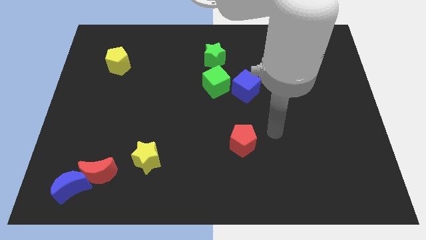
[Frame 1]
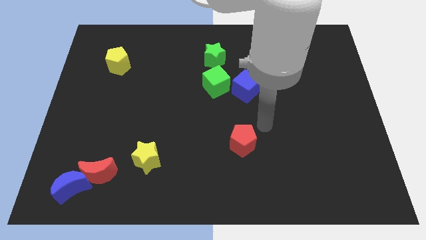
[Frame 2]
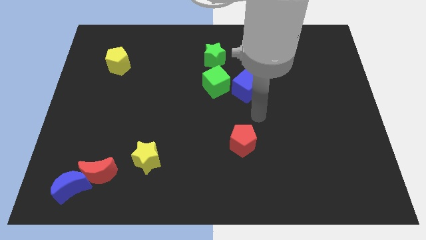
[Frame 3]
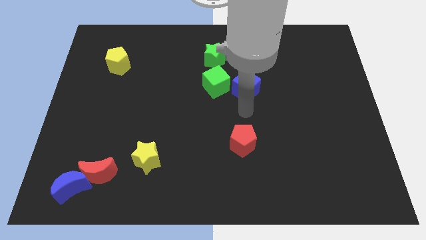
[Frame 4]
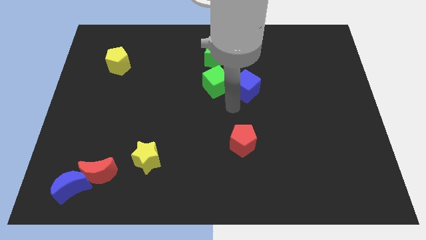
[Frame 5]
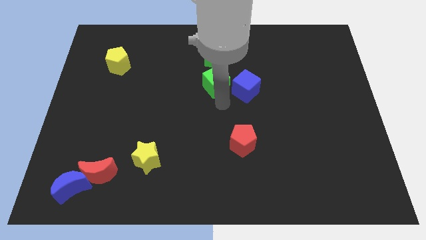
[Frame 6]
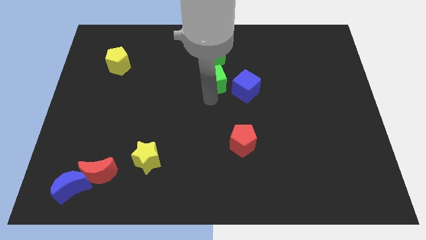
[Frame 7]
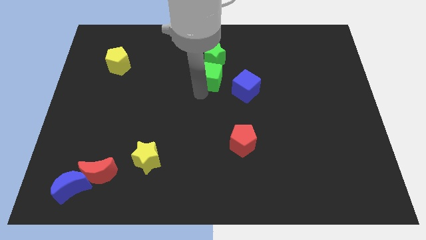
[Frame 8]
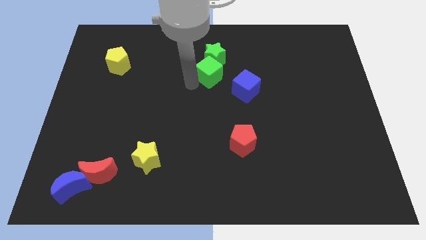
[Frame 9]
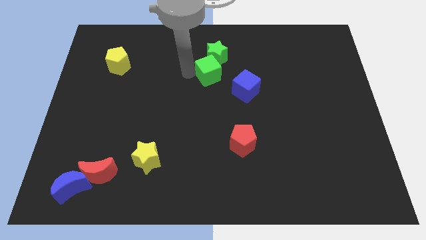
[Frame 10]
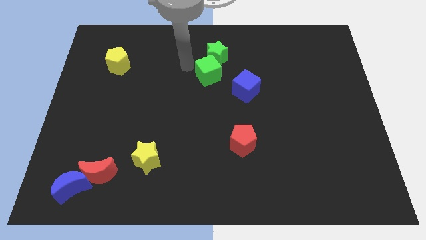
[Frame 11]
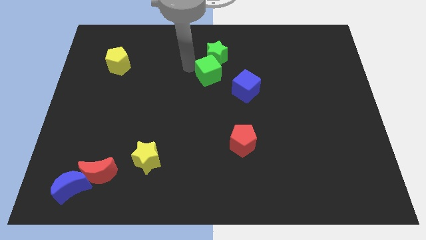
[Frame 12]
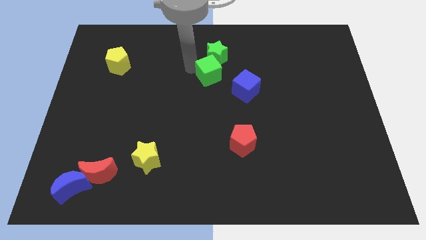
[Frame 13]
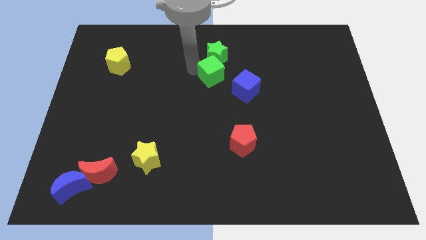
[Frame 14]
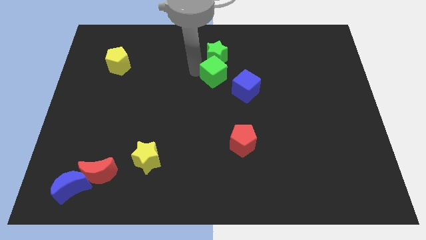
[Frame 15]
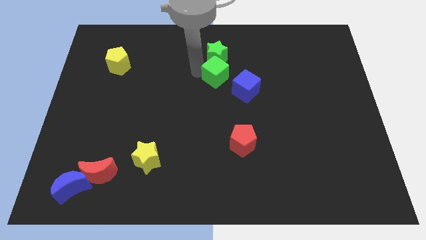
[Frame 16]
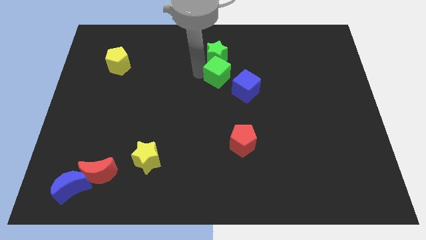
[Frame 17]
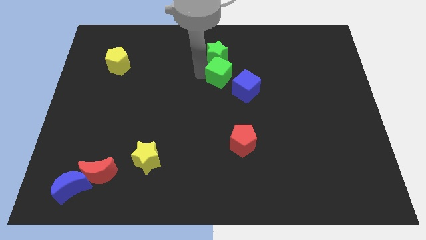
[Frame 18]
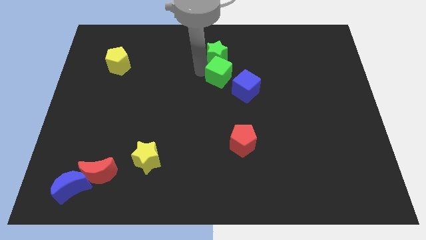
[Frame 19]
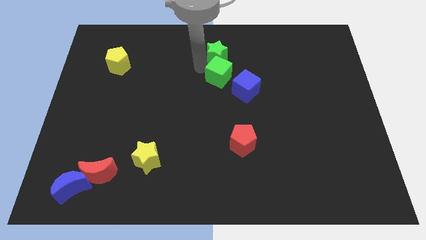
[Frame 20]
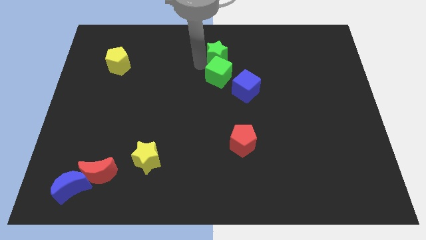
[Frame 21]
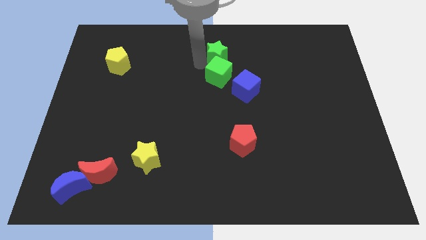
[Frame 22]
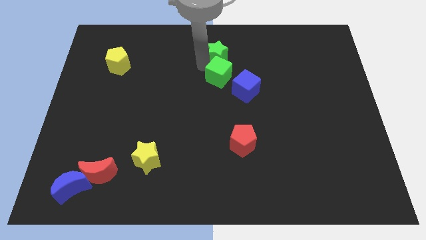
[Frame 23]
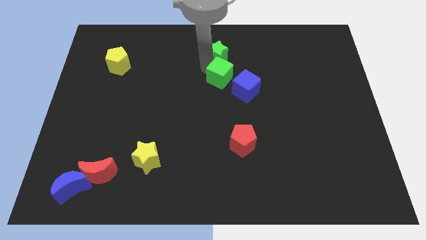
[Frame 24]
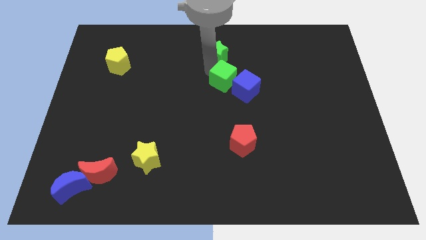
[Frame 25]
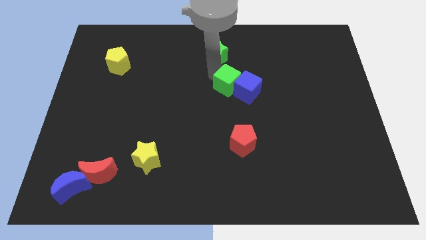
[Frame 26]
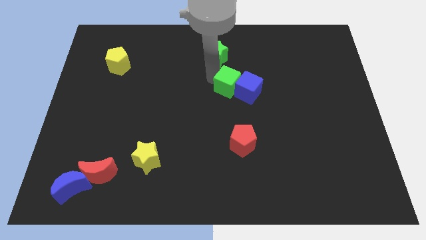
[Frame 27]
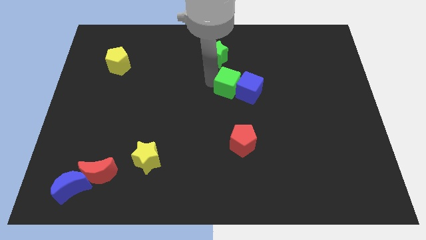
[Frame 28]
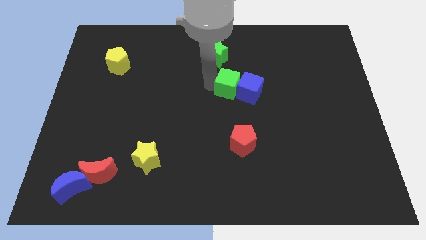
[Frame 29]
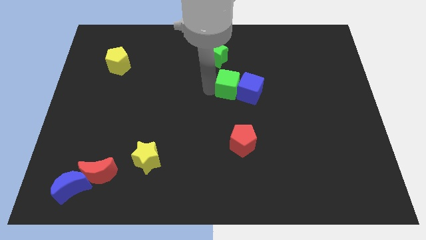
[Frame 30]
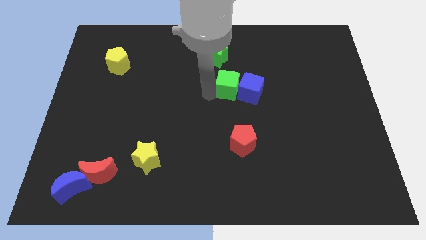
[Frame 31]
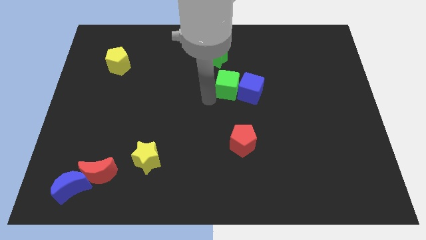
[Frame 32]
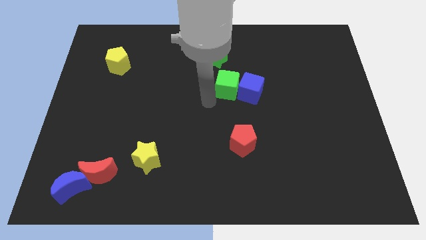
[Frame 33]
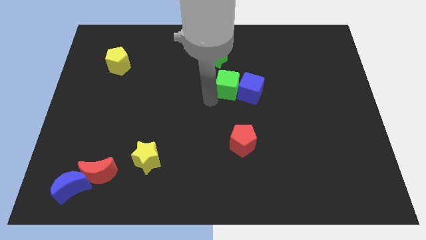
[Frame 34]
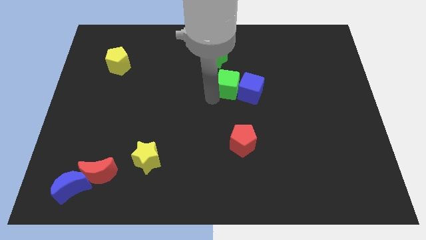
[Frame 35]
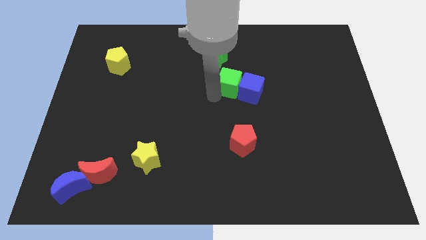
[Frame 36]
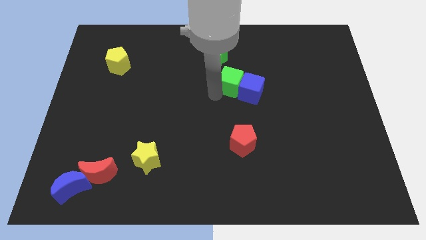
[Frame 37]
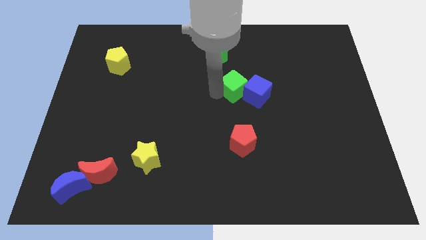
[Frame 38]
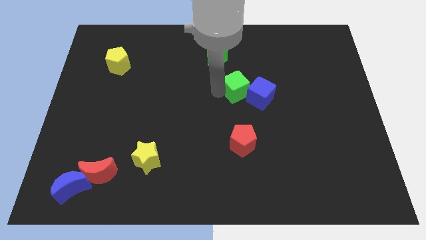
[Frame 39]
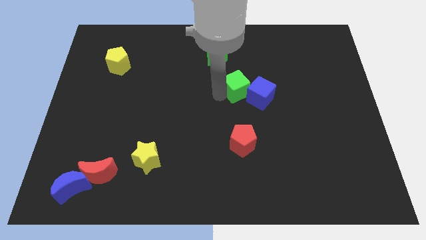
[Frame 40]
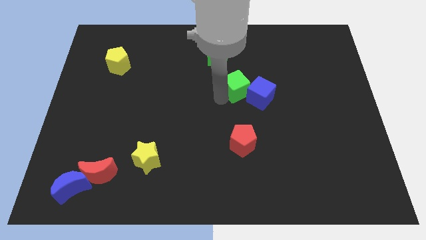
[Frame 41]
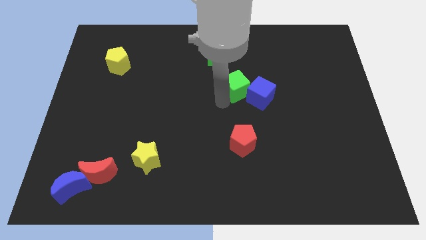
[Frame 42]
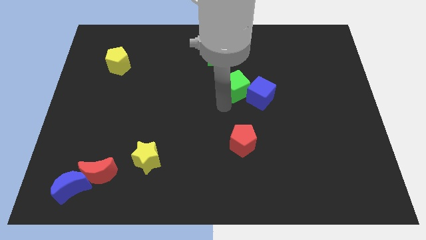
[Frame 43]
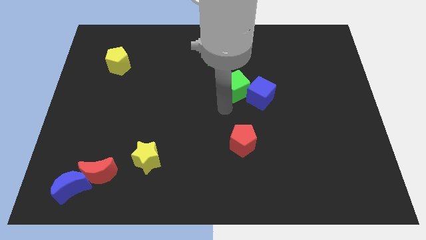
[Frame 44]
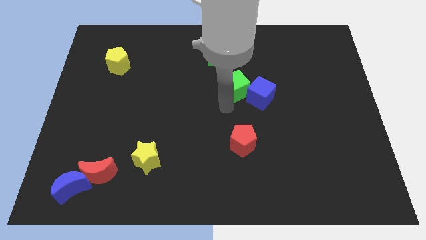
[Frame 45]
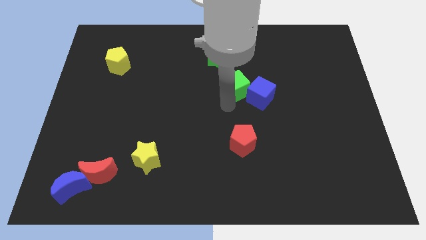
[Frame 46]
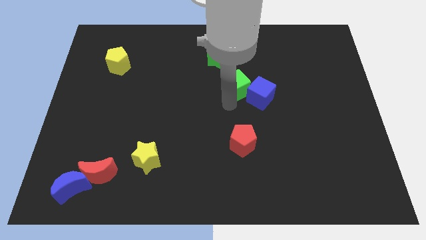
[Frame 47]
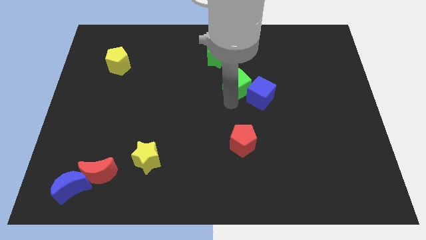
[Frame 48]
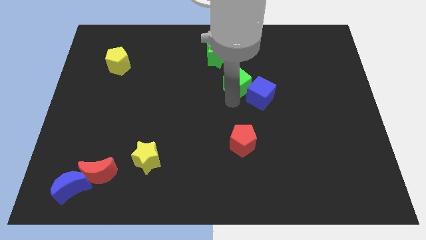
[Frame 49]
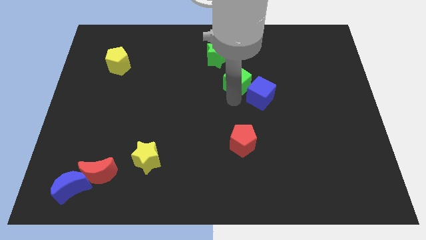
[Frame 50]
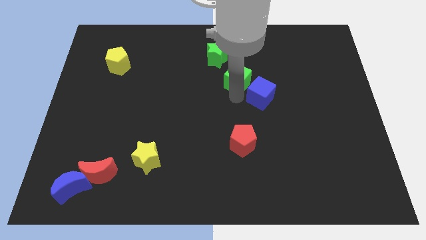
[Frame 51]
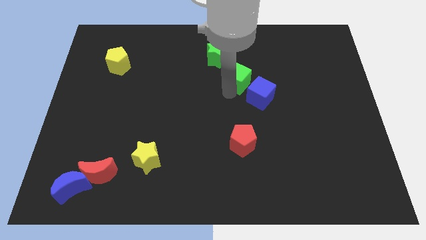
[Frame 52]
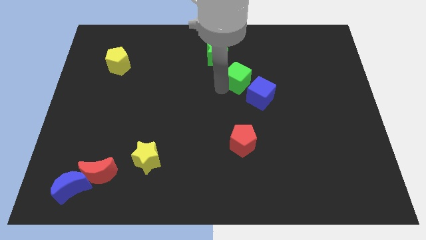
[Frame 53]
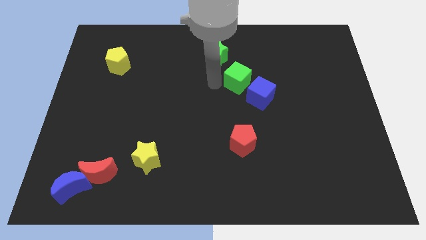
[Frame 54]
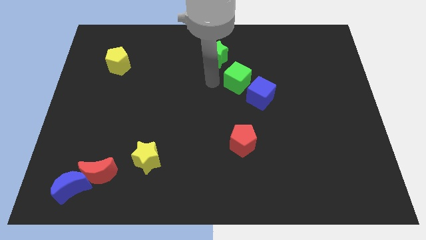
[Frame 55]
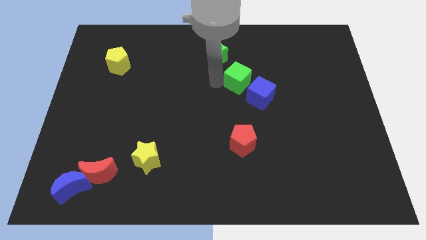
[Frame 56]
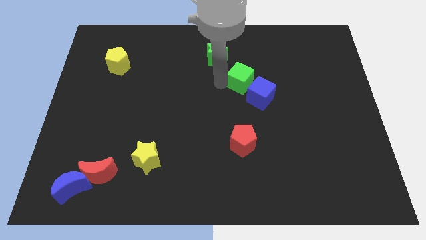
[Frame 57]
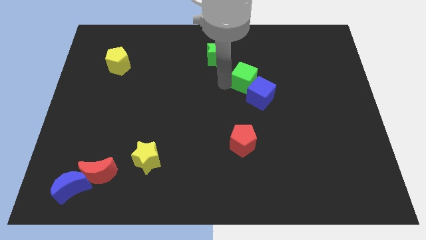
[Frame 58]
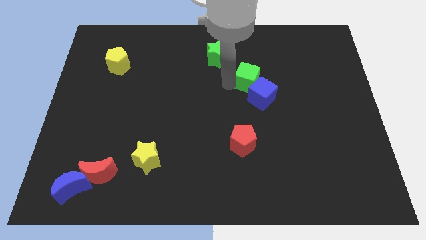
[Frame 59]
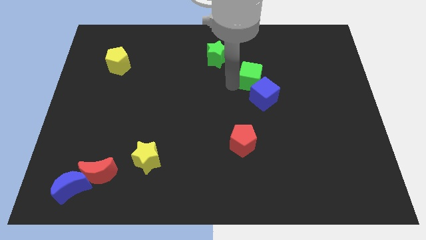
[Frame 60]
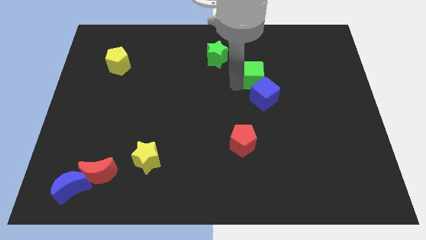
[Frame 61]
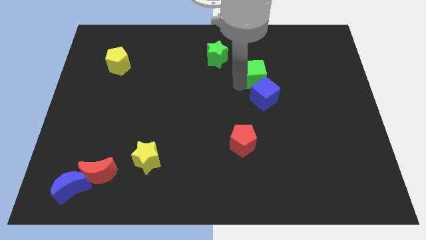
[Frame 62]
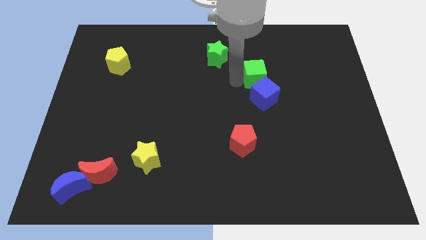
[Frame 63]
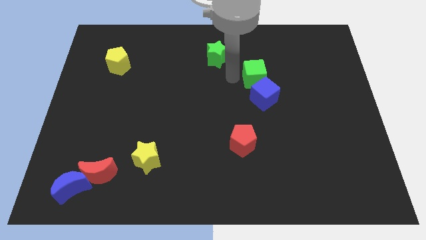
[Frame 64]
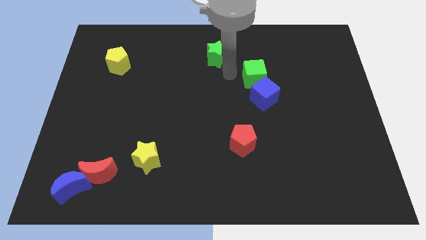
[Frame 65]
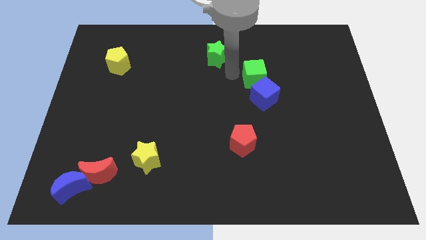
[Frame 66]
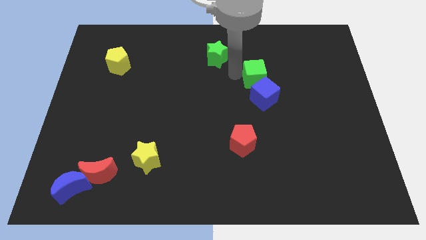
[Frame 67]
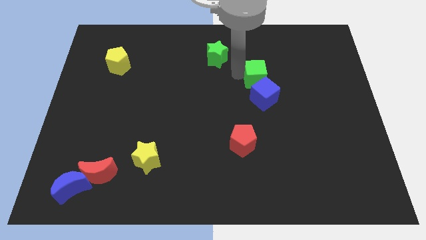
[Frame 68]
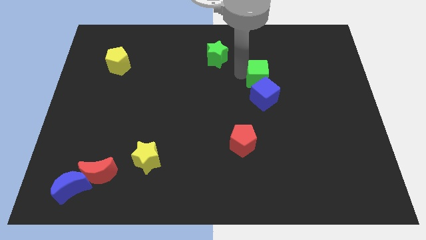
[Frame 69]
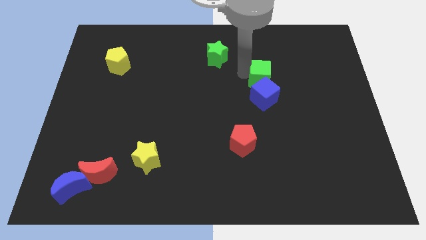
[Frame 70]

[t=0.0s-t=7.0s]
slide the green cube diagonally up and to the right of the blue cube
